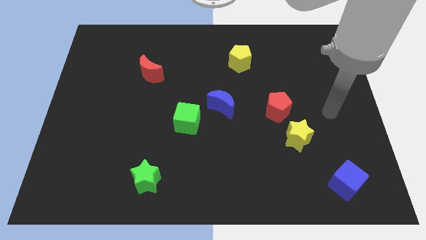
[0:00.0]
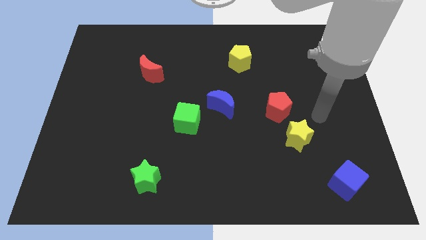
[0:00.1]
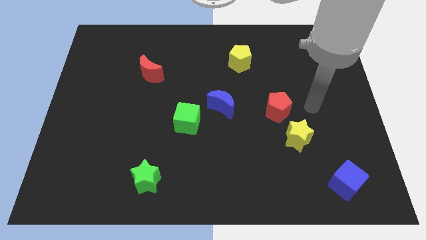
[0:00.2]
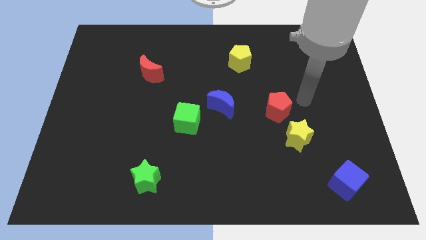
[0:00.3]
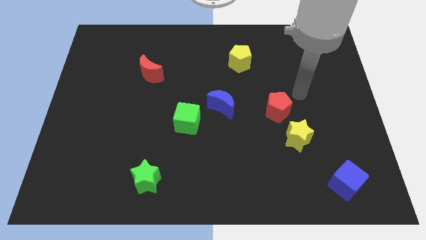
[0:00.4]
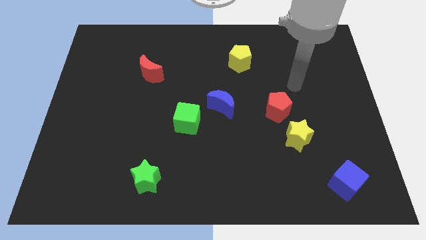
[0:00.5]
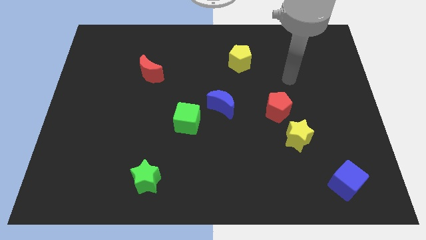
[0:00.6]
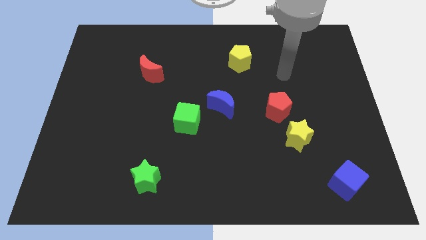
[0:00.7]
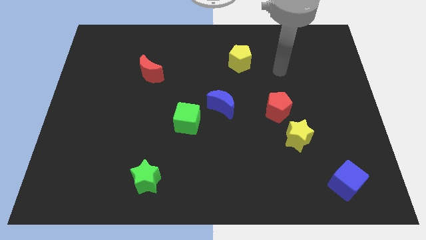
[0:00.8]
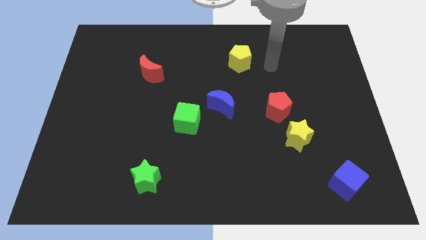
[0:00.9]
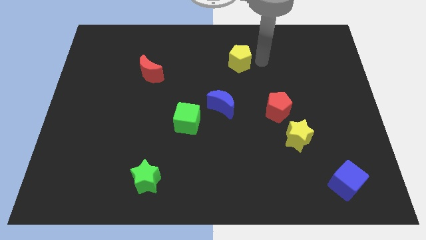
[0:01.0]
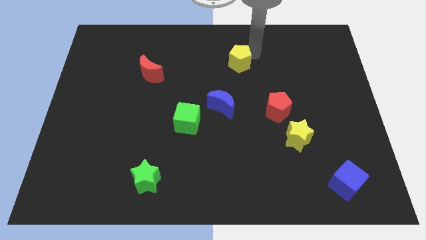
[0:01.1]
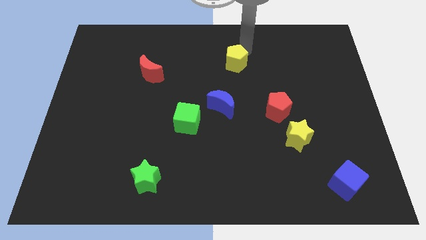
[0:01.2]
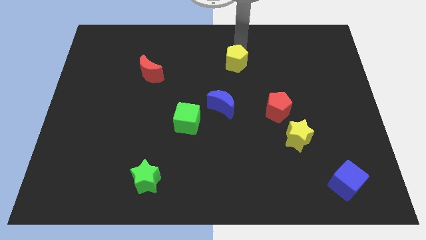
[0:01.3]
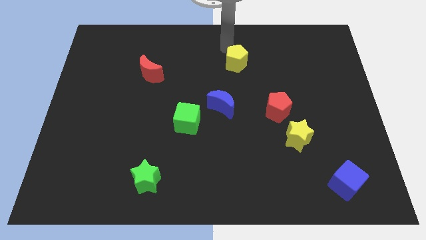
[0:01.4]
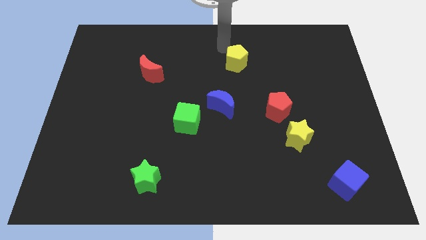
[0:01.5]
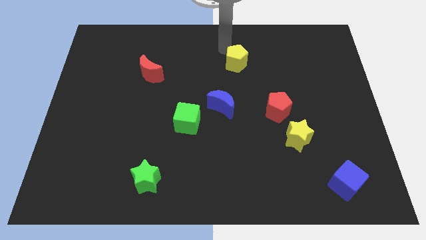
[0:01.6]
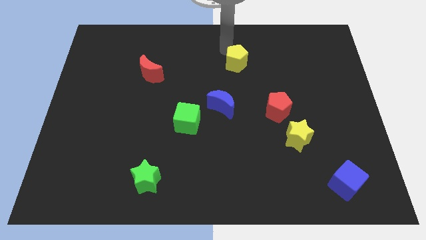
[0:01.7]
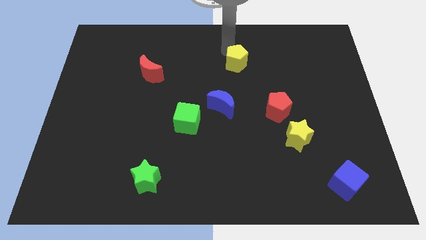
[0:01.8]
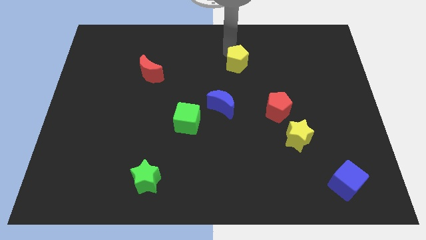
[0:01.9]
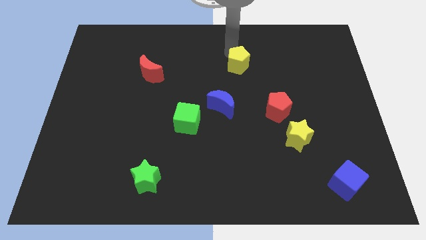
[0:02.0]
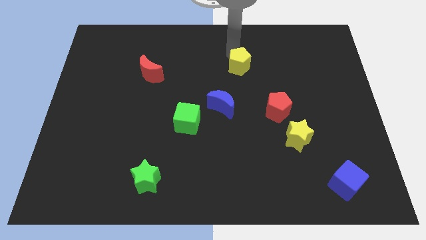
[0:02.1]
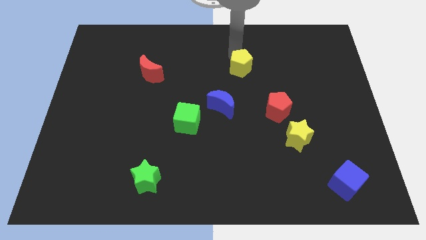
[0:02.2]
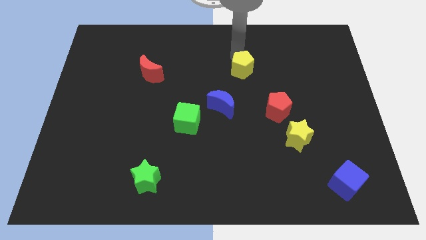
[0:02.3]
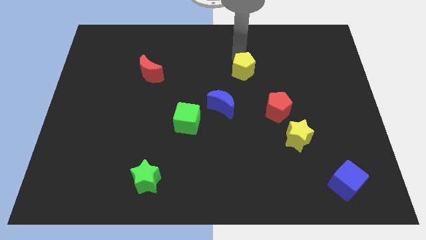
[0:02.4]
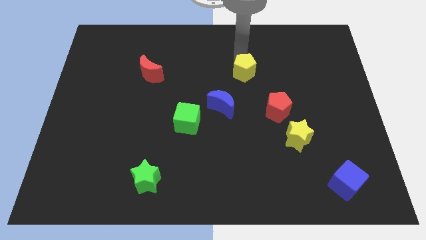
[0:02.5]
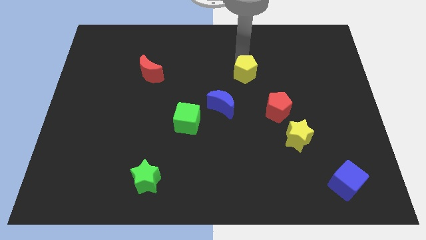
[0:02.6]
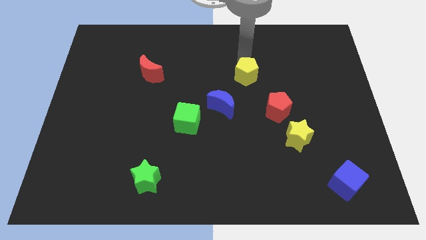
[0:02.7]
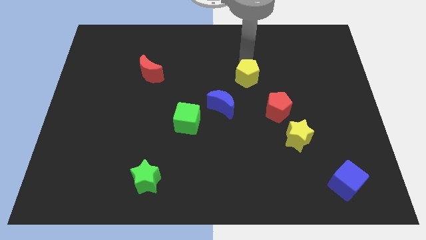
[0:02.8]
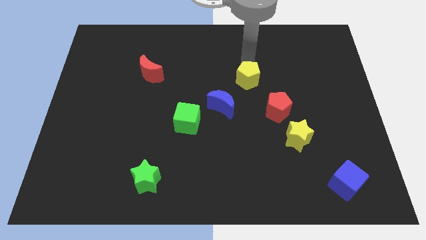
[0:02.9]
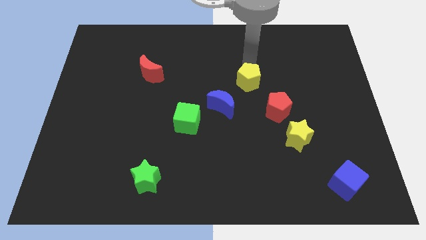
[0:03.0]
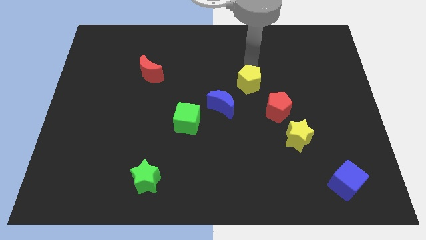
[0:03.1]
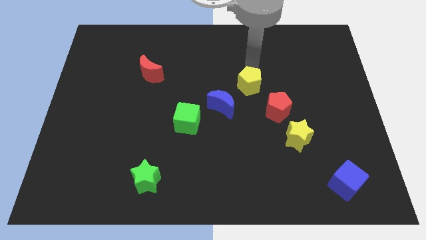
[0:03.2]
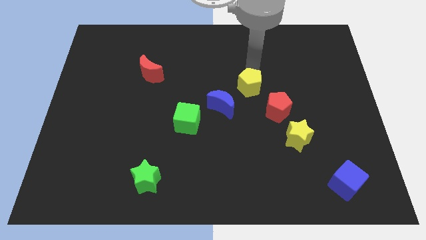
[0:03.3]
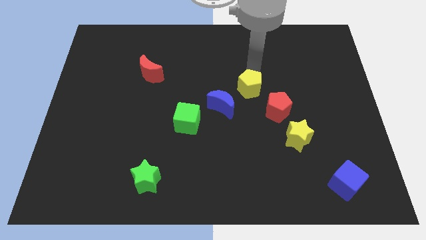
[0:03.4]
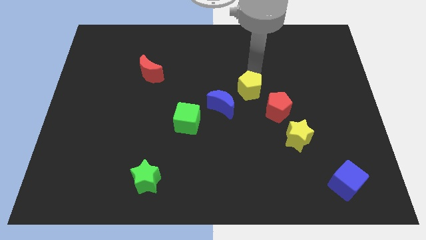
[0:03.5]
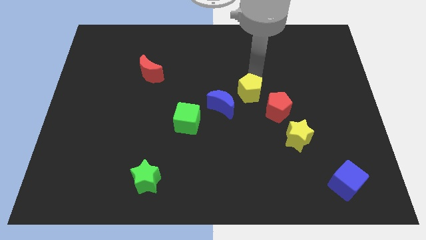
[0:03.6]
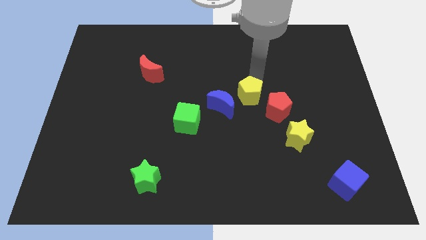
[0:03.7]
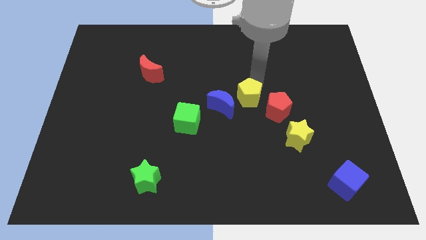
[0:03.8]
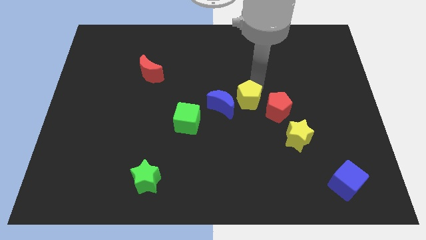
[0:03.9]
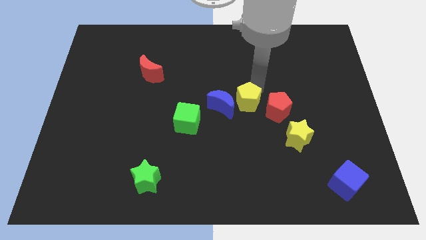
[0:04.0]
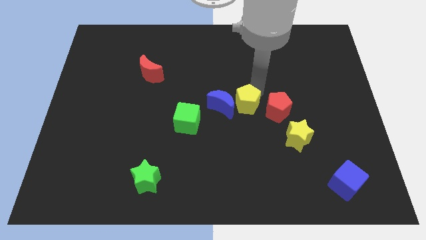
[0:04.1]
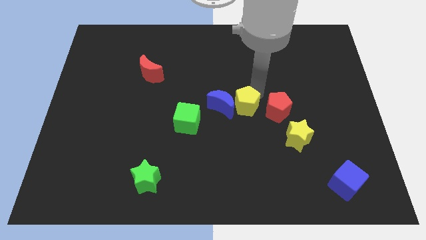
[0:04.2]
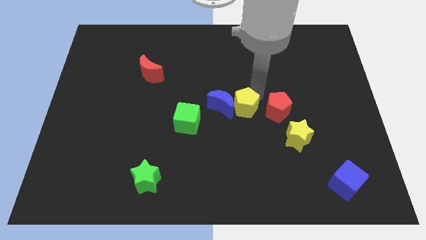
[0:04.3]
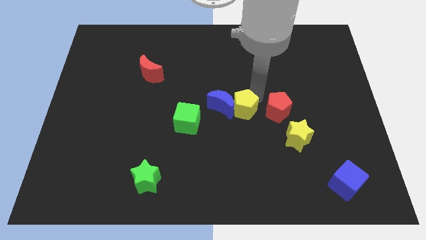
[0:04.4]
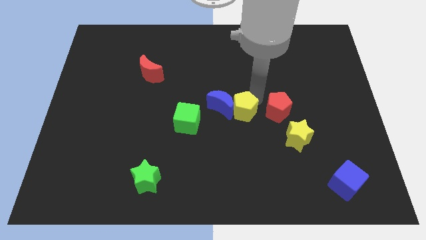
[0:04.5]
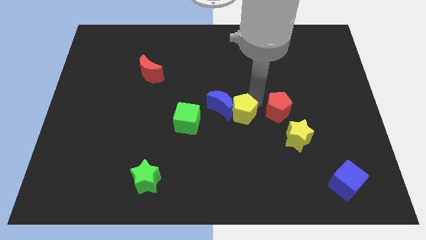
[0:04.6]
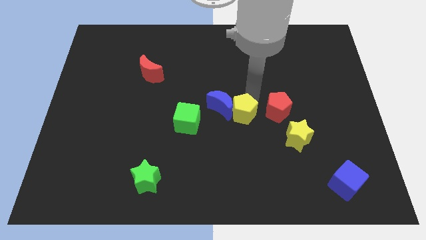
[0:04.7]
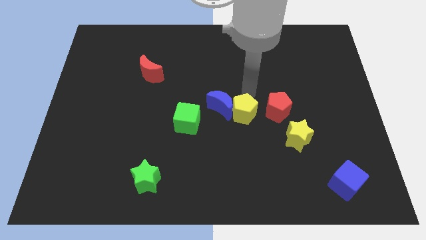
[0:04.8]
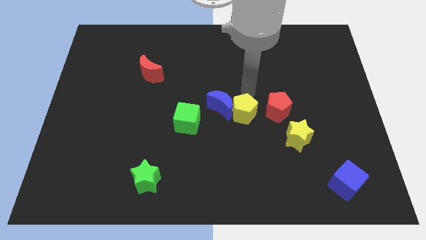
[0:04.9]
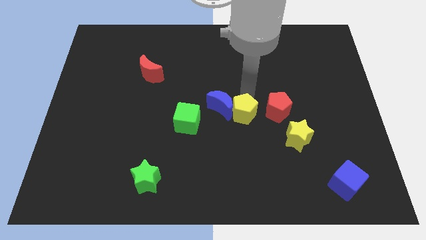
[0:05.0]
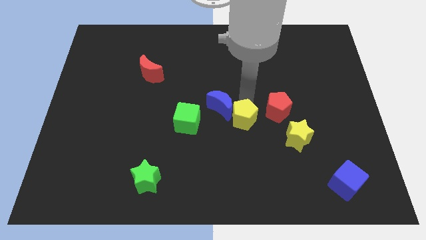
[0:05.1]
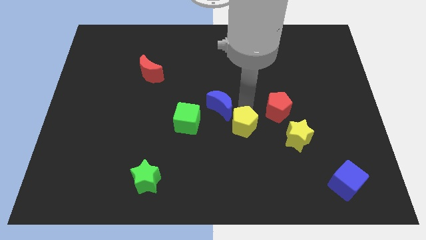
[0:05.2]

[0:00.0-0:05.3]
slide the yellow pentagon down

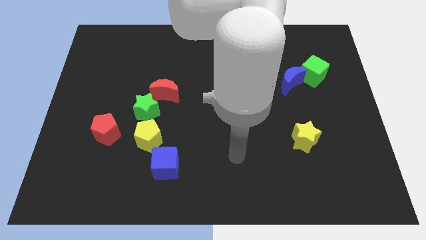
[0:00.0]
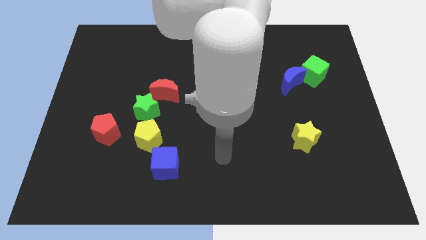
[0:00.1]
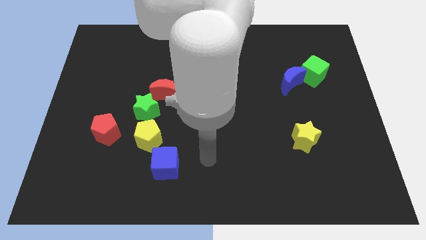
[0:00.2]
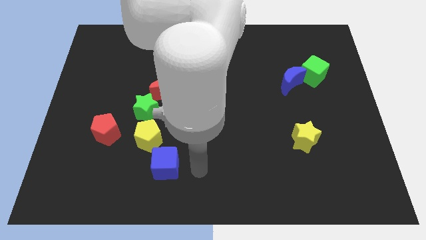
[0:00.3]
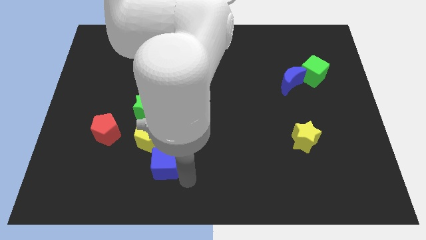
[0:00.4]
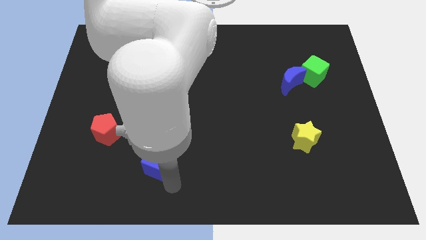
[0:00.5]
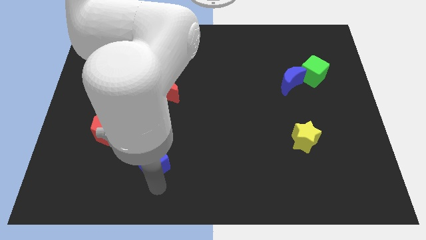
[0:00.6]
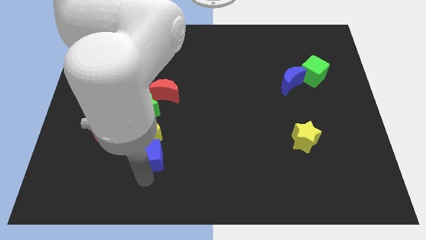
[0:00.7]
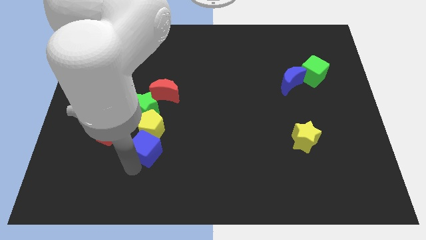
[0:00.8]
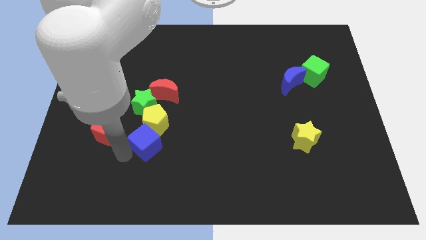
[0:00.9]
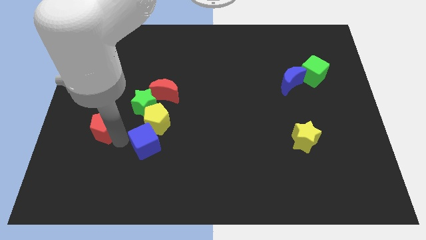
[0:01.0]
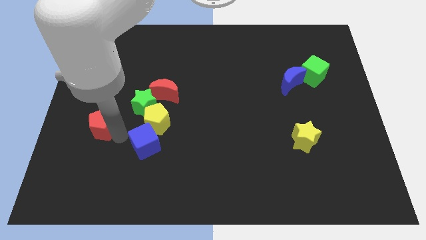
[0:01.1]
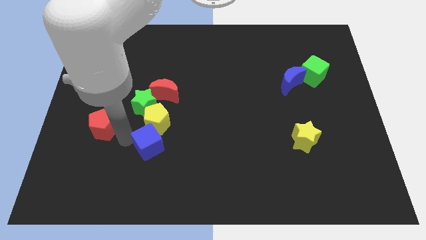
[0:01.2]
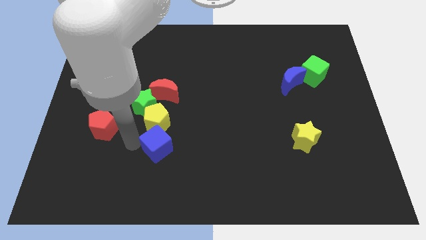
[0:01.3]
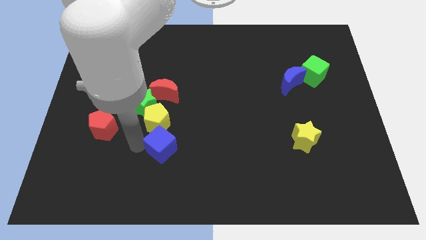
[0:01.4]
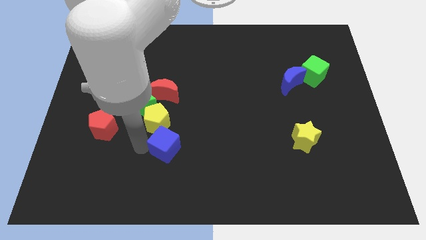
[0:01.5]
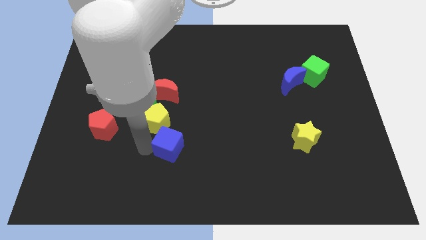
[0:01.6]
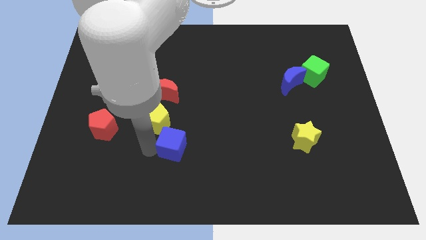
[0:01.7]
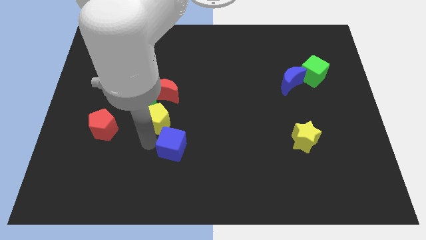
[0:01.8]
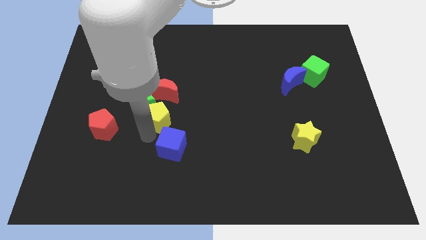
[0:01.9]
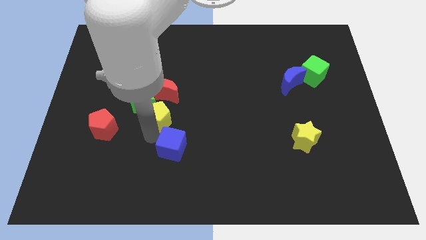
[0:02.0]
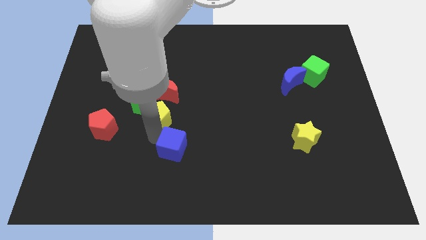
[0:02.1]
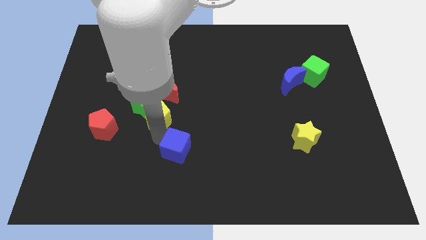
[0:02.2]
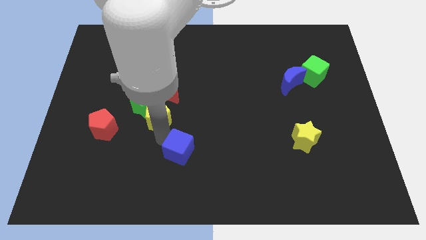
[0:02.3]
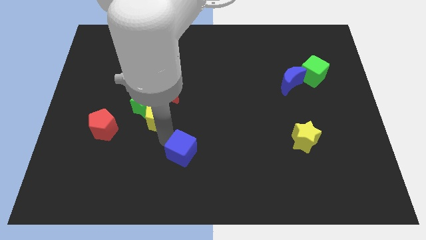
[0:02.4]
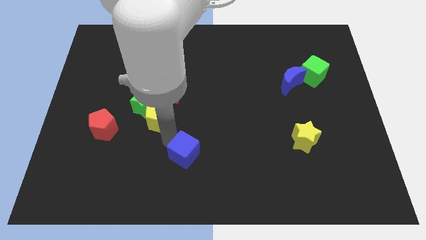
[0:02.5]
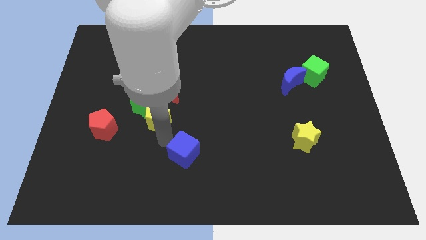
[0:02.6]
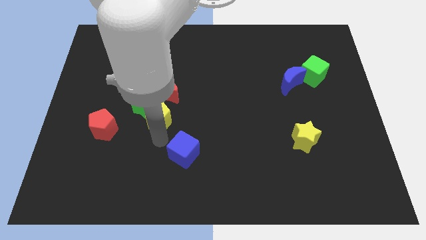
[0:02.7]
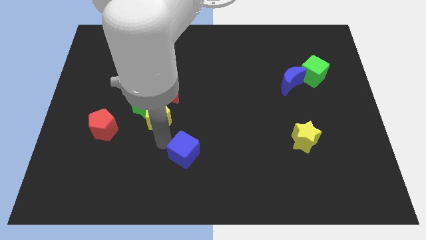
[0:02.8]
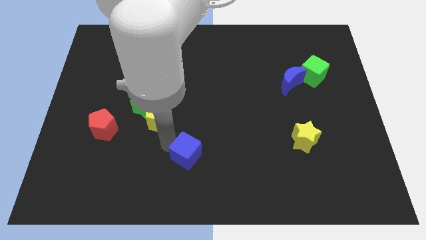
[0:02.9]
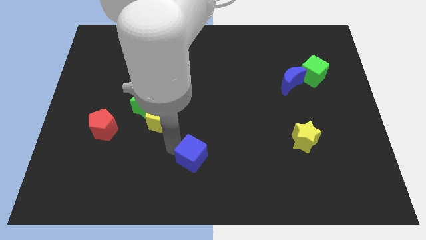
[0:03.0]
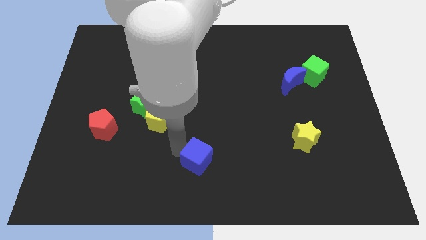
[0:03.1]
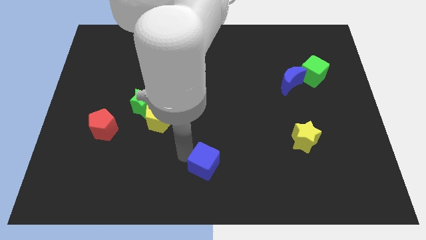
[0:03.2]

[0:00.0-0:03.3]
move the blue cube a bit right

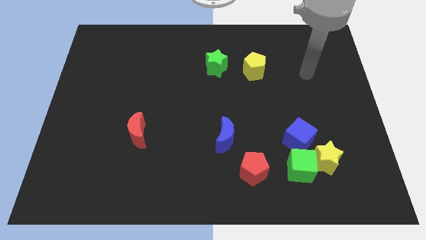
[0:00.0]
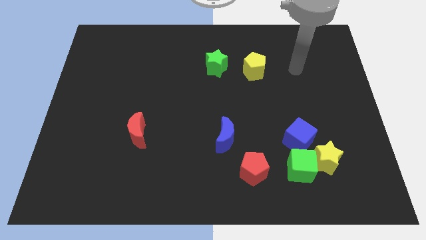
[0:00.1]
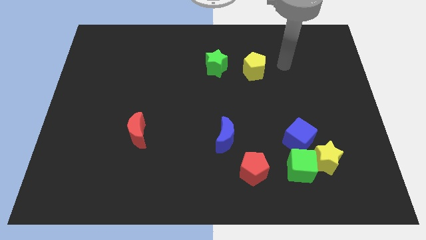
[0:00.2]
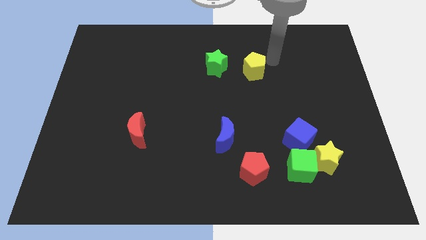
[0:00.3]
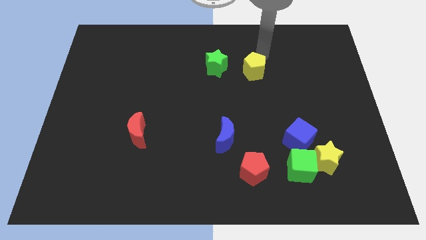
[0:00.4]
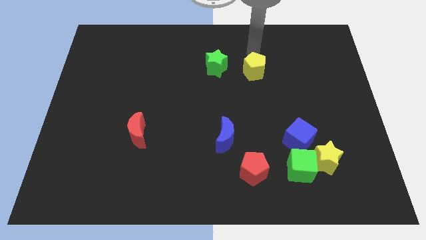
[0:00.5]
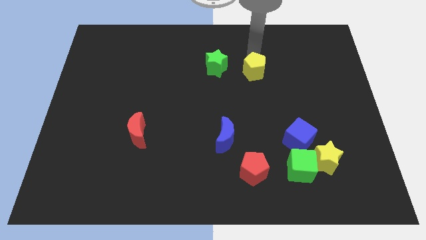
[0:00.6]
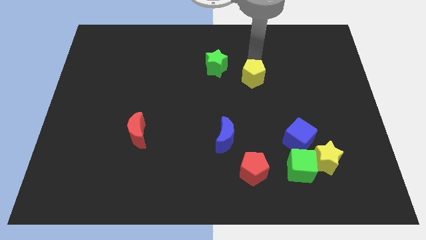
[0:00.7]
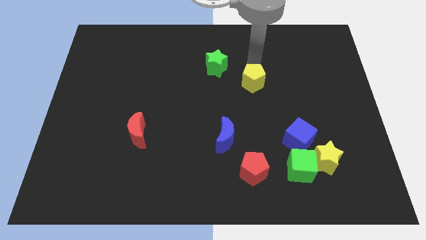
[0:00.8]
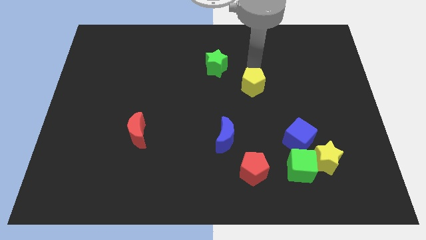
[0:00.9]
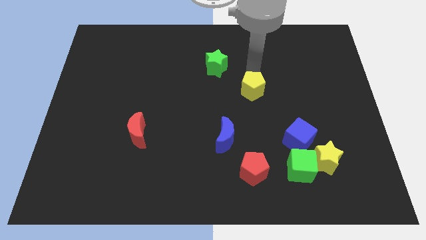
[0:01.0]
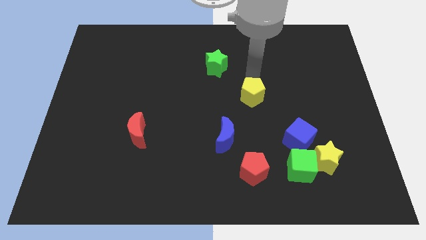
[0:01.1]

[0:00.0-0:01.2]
slide the yellow pentagon downwards somewhat
